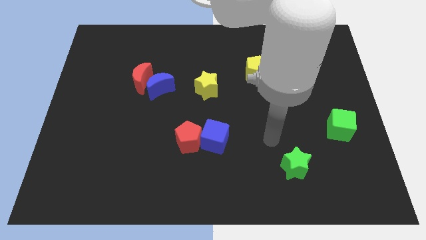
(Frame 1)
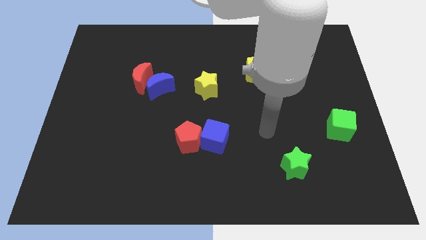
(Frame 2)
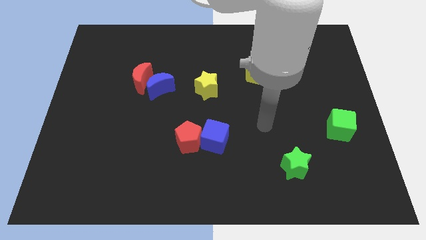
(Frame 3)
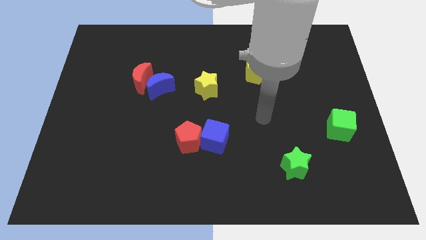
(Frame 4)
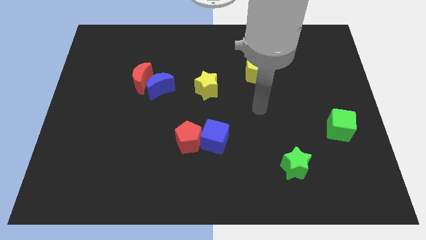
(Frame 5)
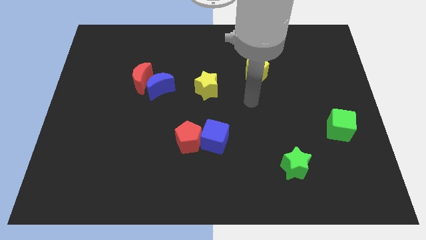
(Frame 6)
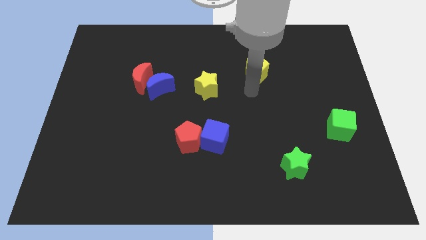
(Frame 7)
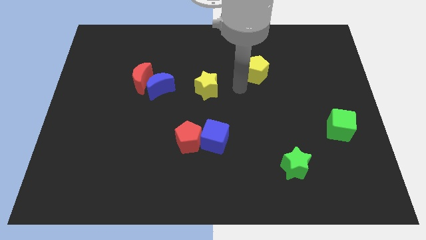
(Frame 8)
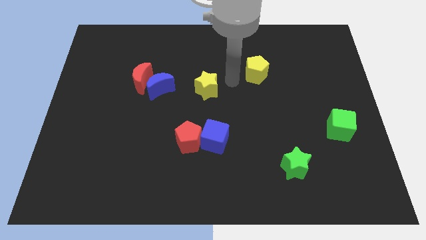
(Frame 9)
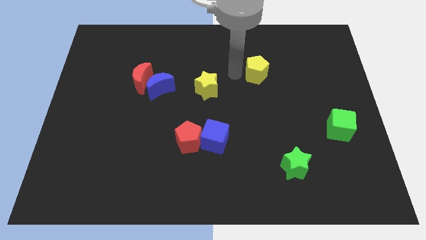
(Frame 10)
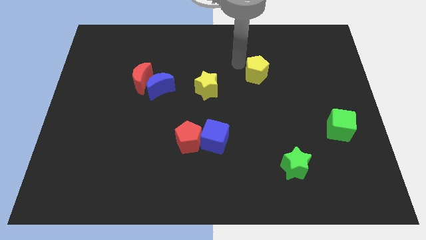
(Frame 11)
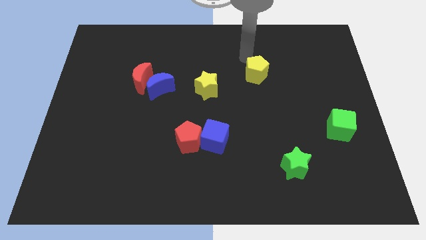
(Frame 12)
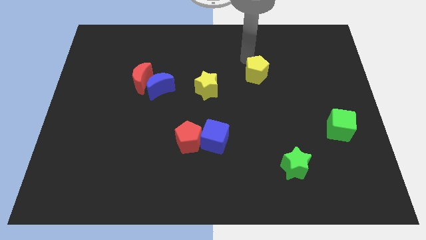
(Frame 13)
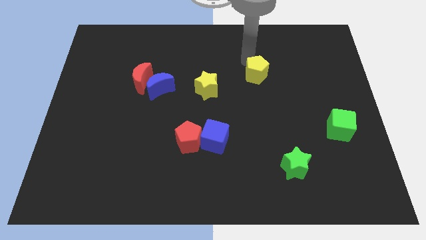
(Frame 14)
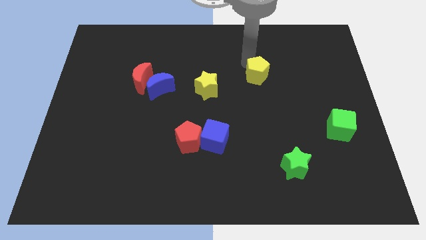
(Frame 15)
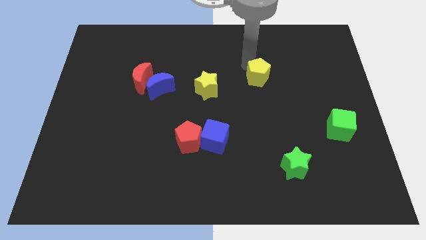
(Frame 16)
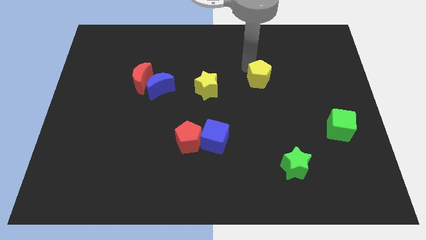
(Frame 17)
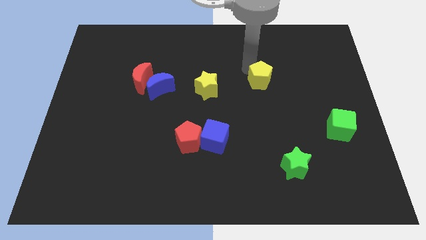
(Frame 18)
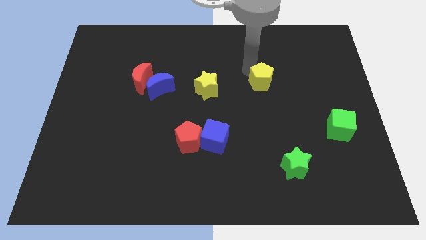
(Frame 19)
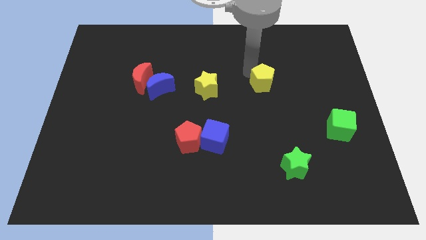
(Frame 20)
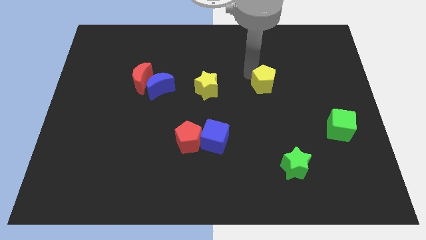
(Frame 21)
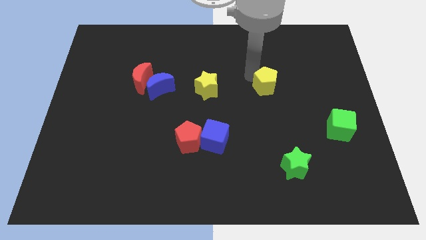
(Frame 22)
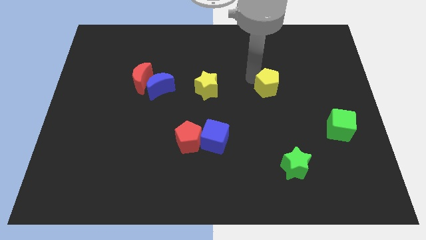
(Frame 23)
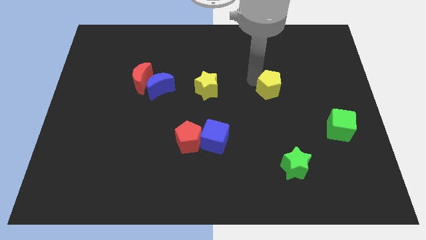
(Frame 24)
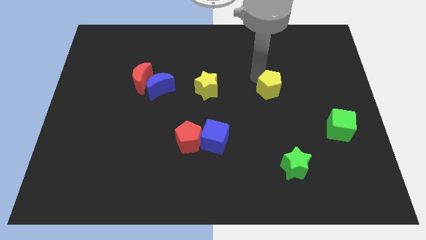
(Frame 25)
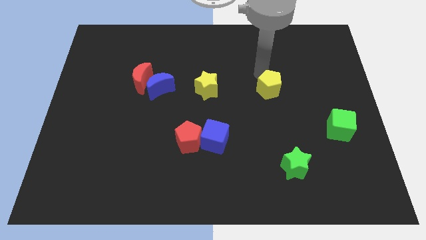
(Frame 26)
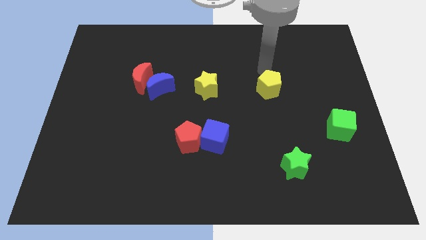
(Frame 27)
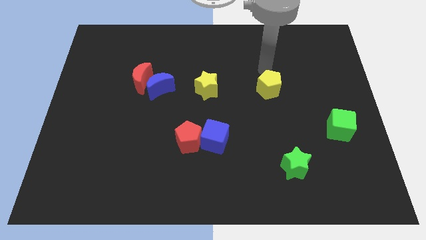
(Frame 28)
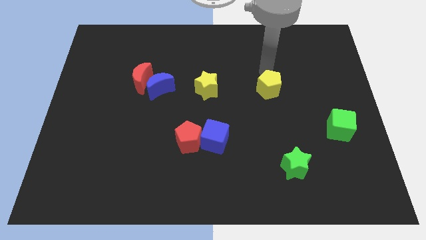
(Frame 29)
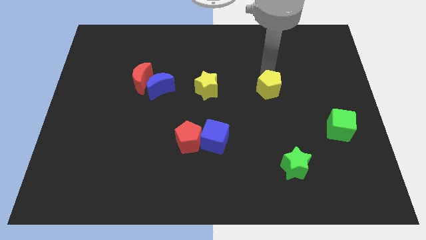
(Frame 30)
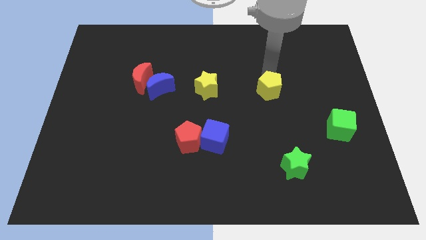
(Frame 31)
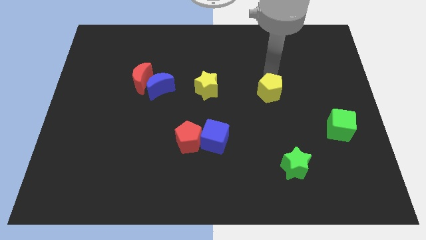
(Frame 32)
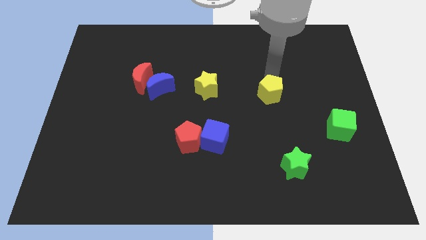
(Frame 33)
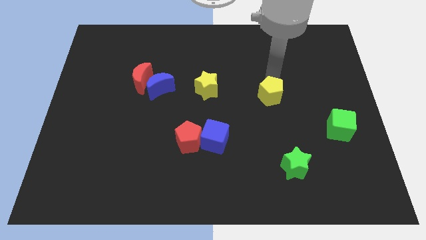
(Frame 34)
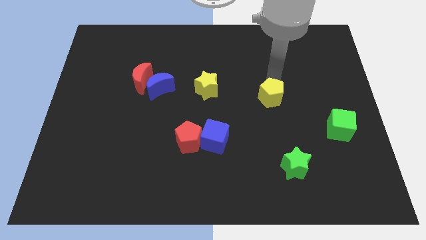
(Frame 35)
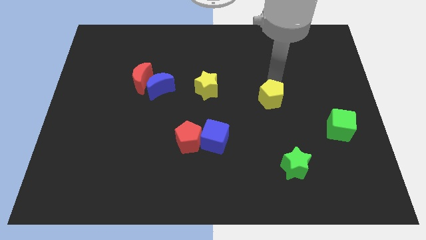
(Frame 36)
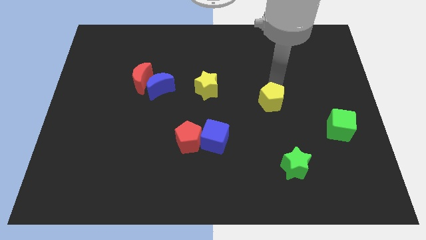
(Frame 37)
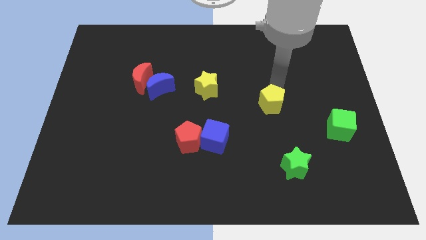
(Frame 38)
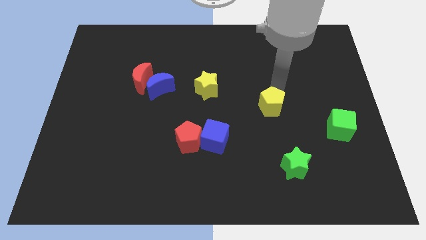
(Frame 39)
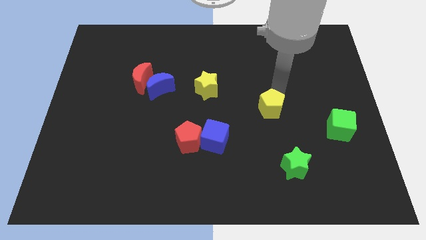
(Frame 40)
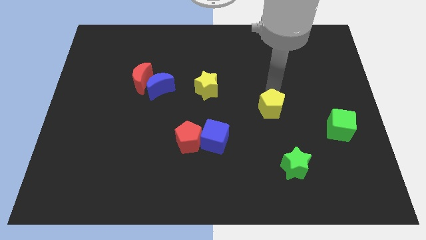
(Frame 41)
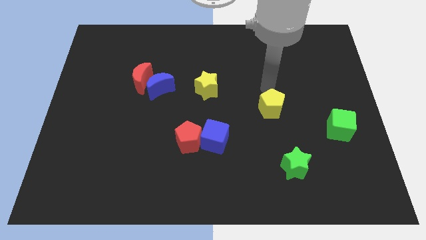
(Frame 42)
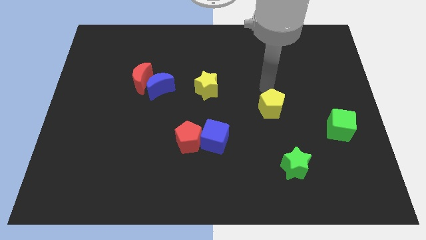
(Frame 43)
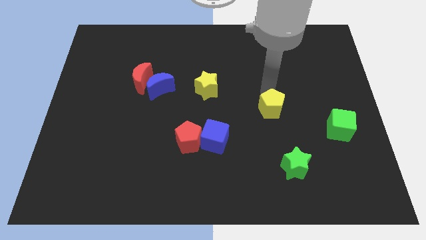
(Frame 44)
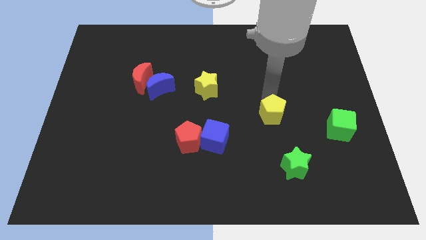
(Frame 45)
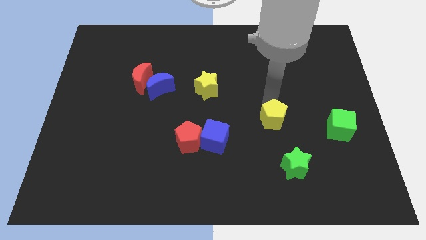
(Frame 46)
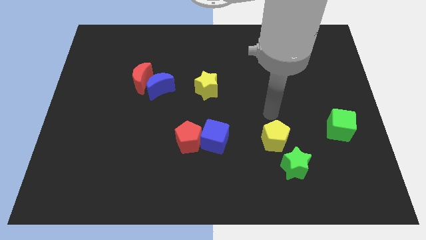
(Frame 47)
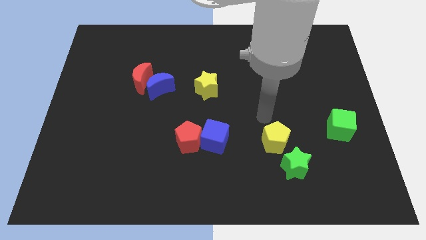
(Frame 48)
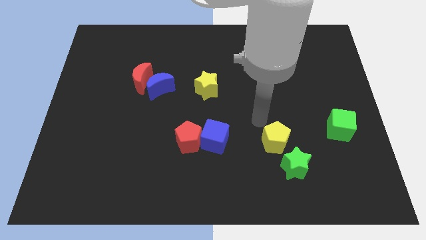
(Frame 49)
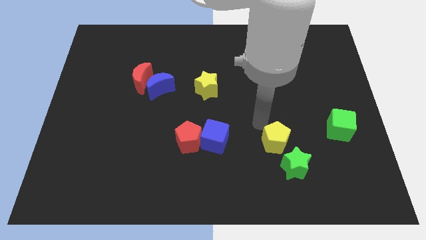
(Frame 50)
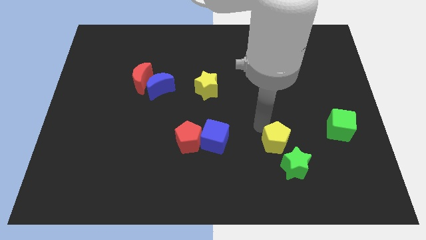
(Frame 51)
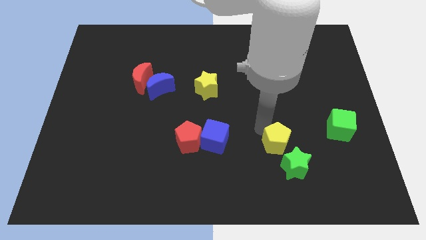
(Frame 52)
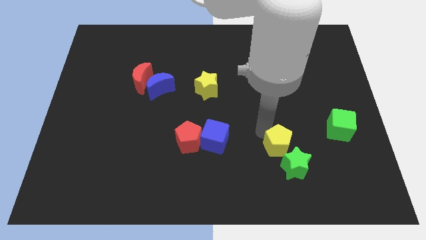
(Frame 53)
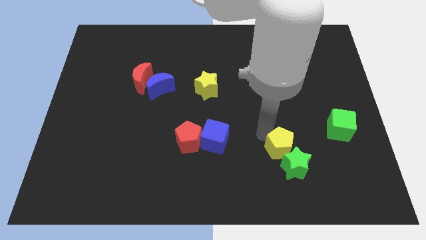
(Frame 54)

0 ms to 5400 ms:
put the yellow pentagon close to the green star

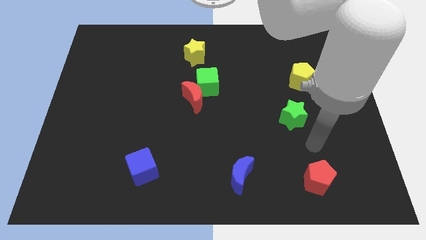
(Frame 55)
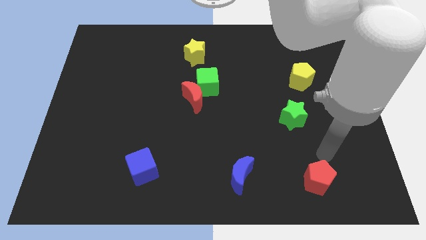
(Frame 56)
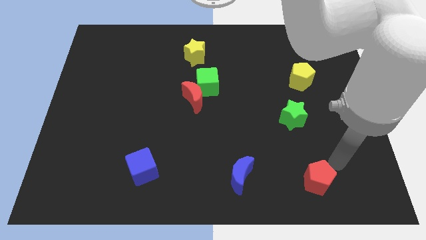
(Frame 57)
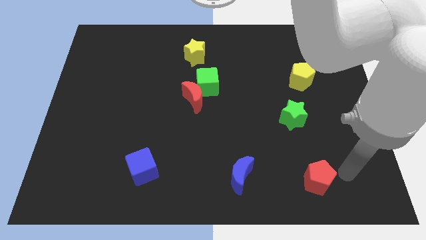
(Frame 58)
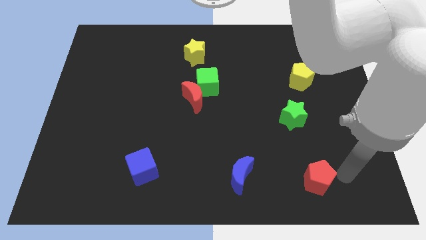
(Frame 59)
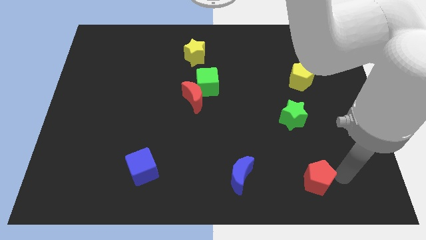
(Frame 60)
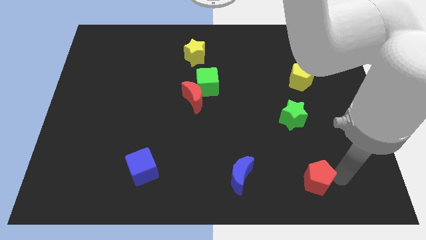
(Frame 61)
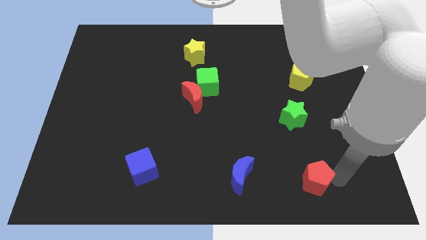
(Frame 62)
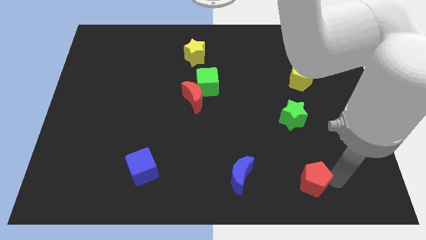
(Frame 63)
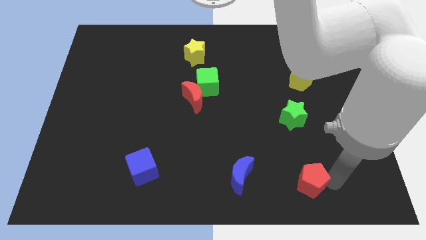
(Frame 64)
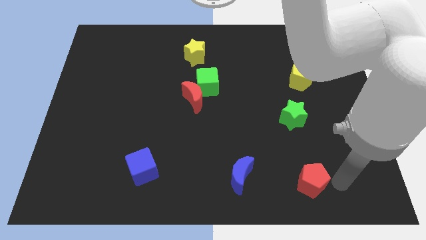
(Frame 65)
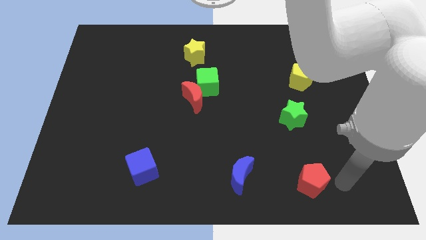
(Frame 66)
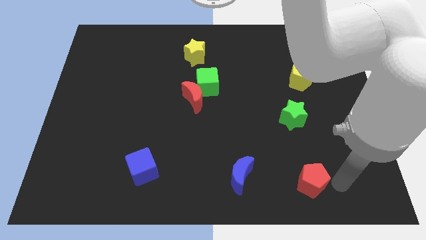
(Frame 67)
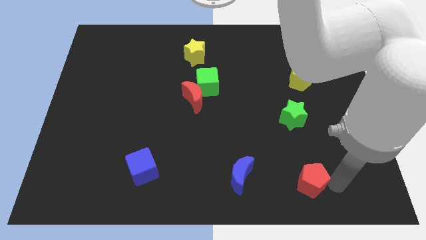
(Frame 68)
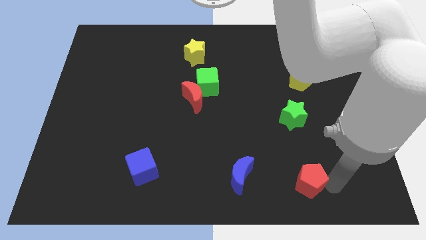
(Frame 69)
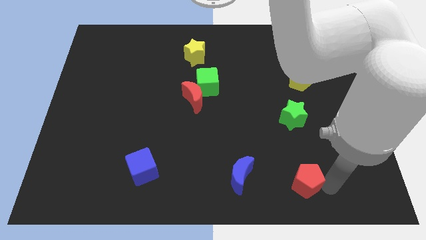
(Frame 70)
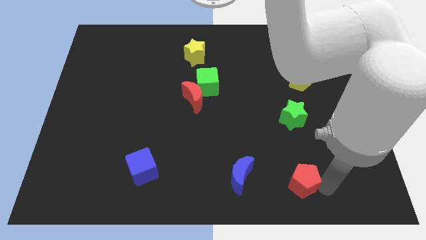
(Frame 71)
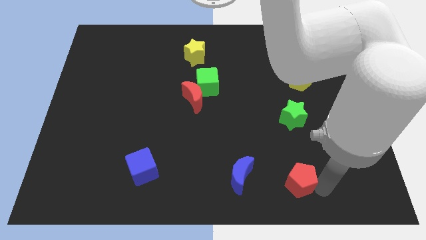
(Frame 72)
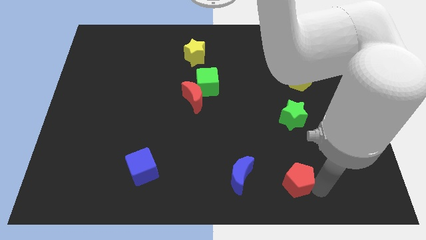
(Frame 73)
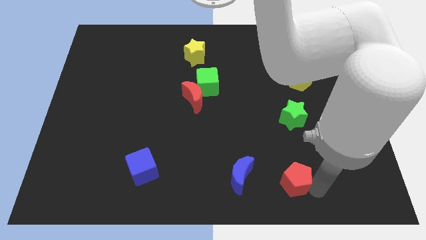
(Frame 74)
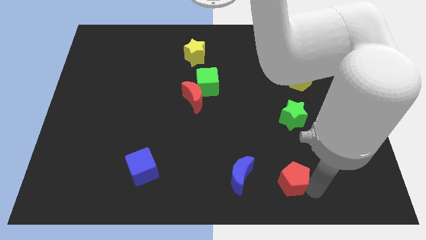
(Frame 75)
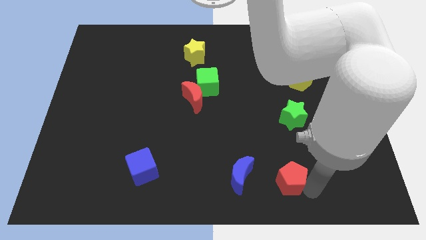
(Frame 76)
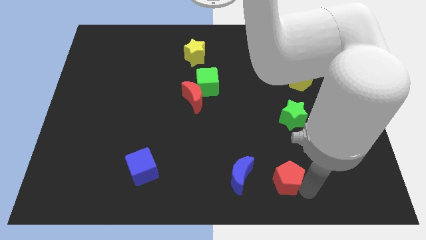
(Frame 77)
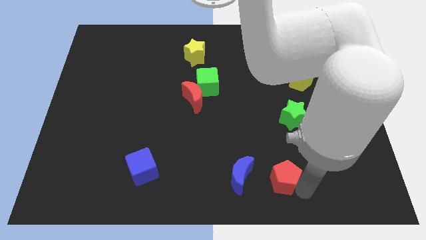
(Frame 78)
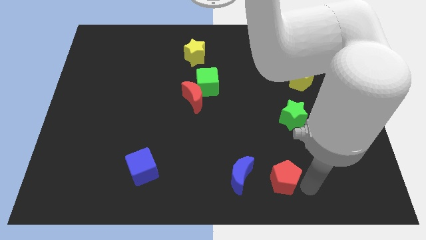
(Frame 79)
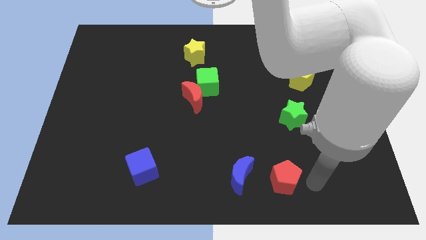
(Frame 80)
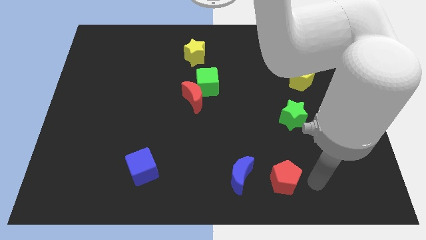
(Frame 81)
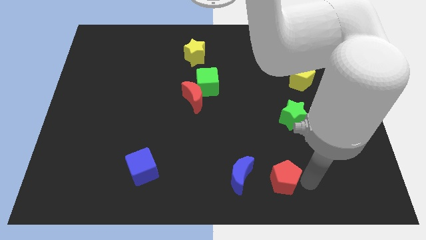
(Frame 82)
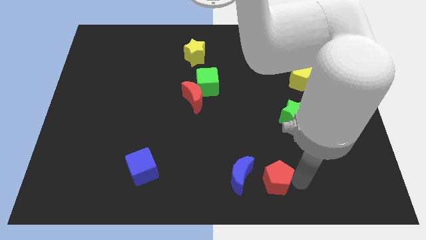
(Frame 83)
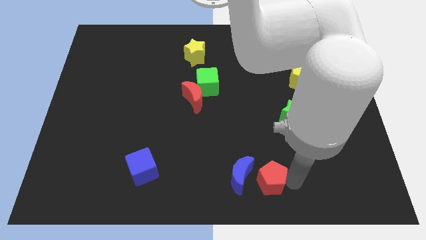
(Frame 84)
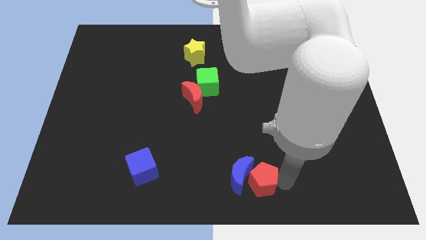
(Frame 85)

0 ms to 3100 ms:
move the red pentagon next to the blue moon
